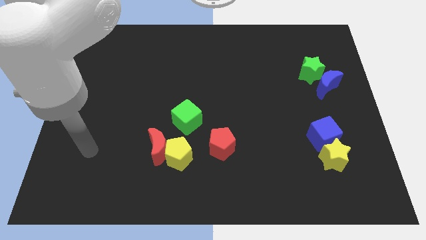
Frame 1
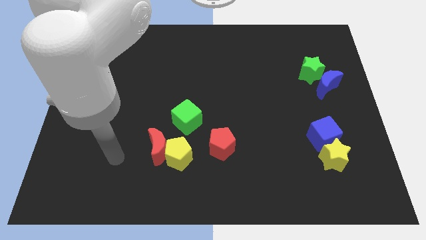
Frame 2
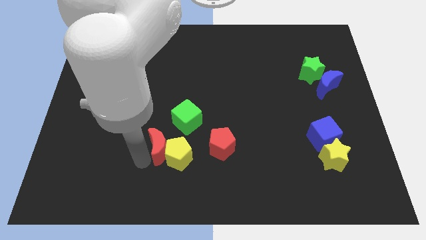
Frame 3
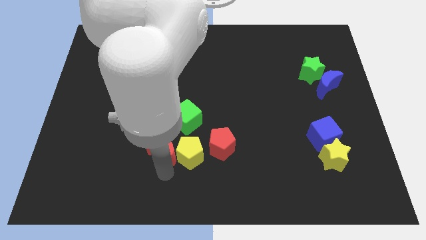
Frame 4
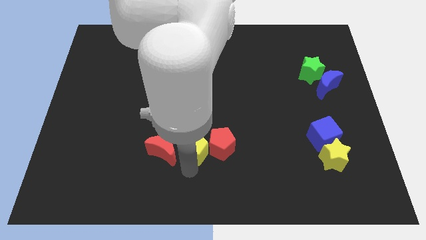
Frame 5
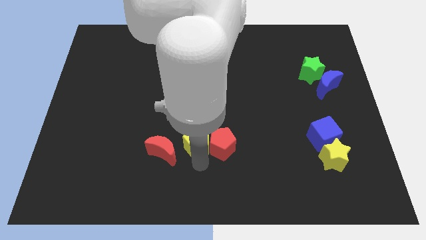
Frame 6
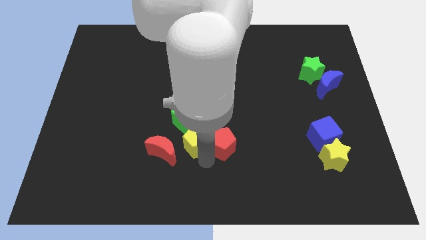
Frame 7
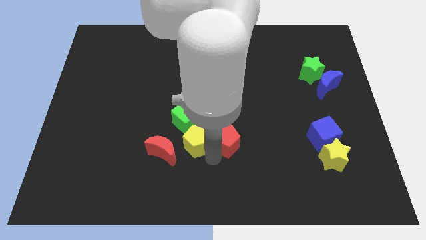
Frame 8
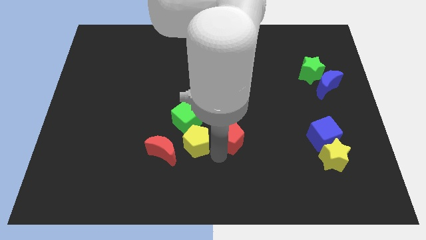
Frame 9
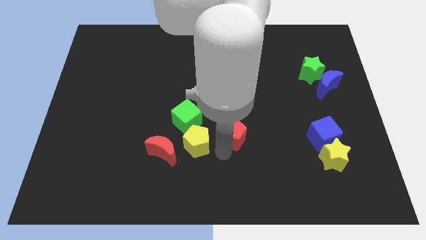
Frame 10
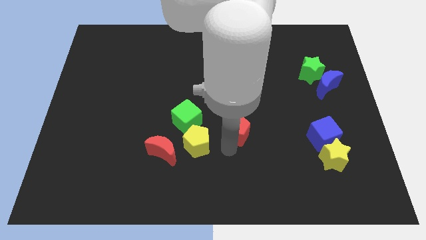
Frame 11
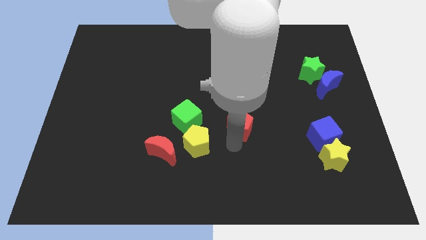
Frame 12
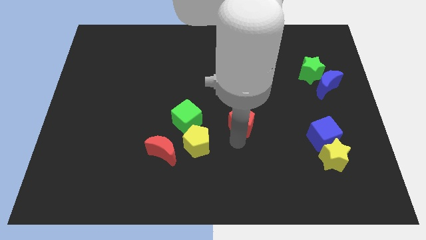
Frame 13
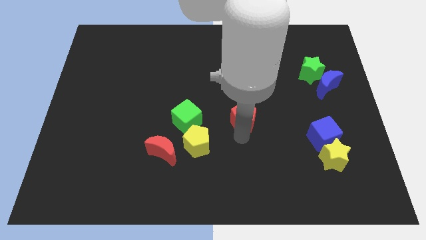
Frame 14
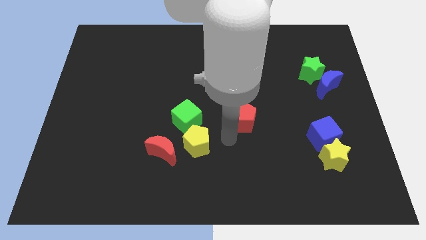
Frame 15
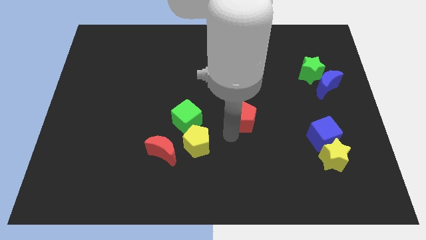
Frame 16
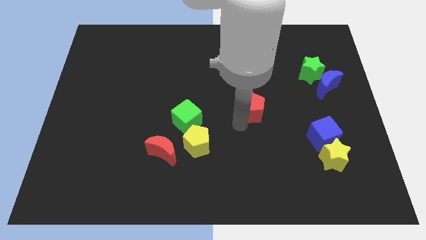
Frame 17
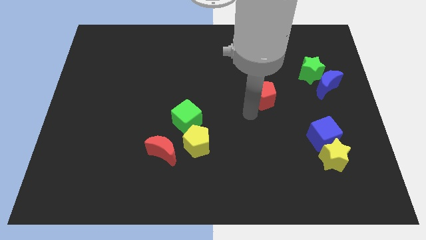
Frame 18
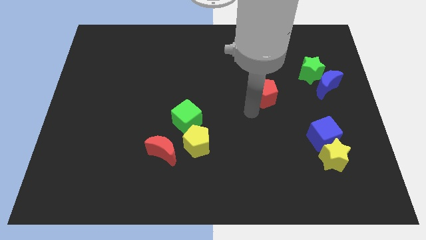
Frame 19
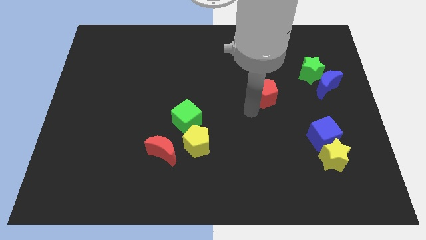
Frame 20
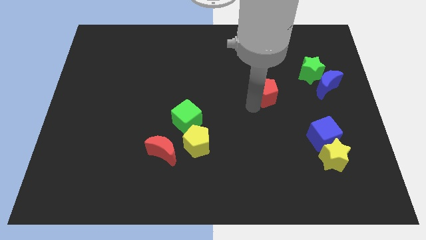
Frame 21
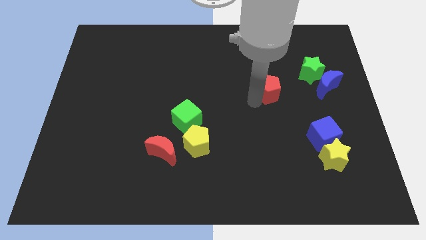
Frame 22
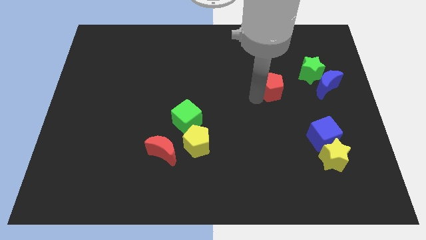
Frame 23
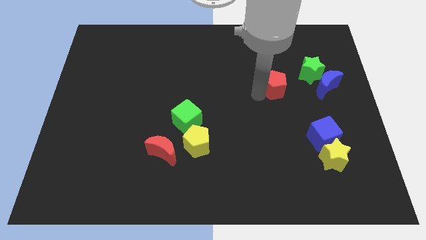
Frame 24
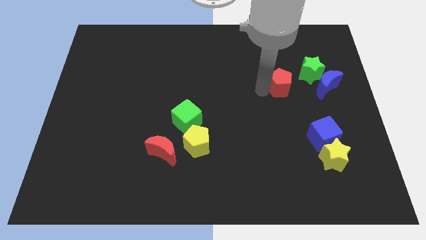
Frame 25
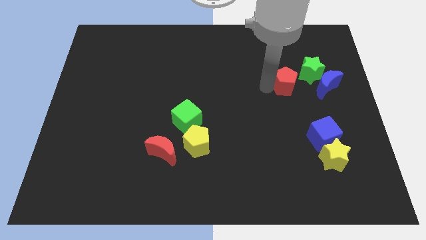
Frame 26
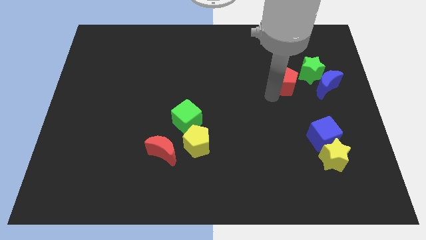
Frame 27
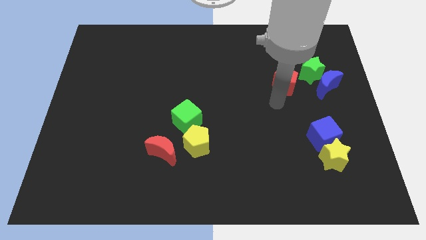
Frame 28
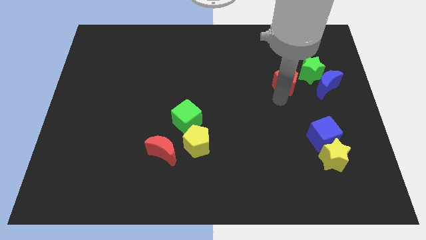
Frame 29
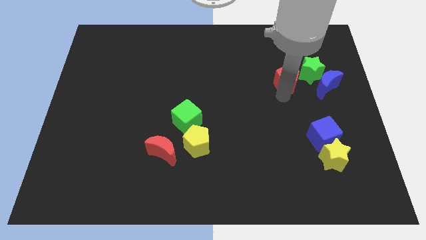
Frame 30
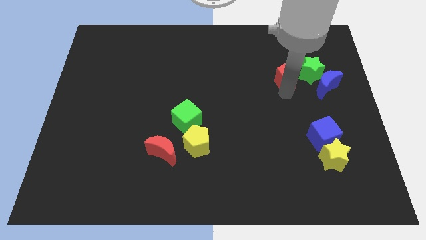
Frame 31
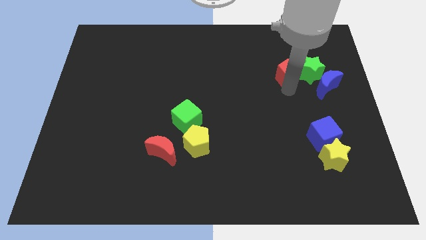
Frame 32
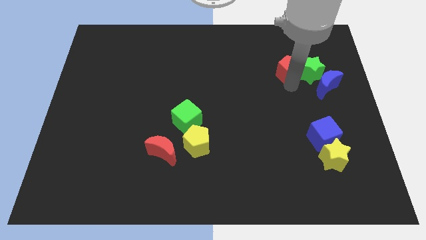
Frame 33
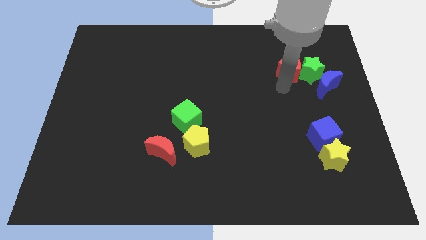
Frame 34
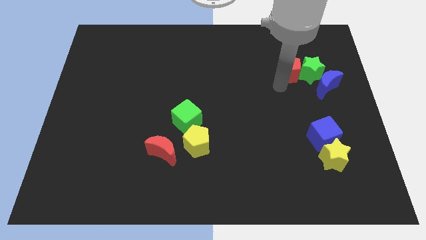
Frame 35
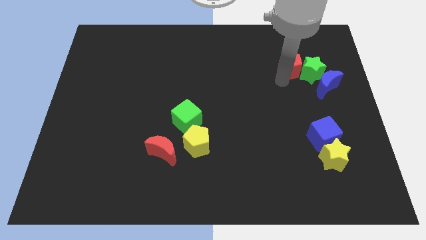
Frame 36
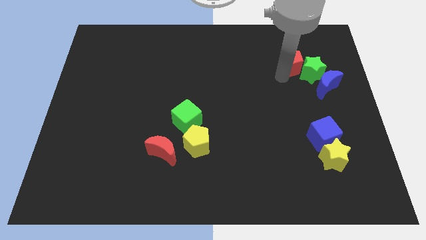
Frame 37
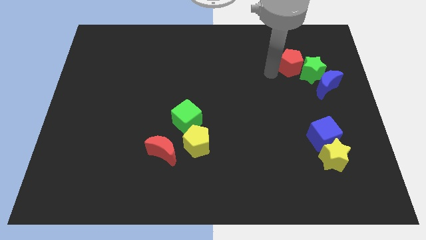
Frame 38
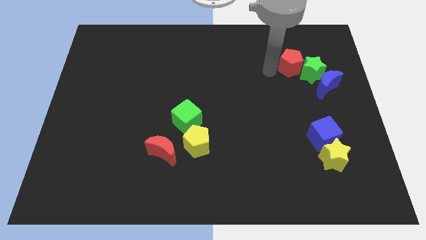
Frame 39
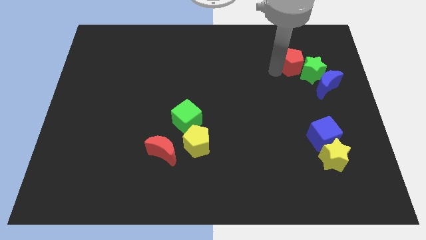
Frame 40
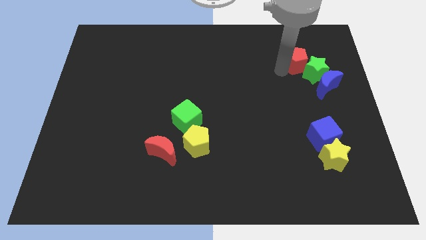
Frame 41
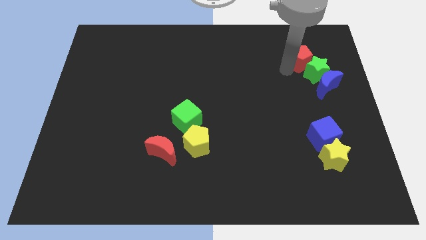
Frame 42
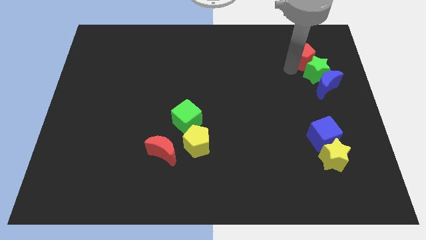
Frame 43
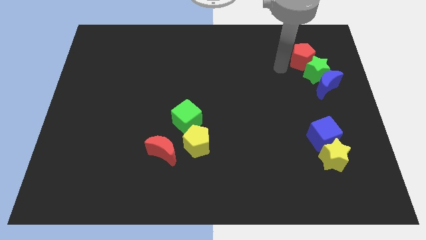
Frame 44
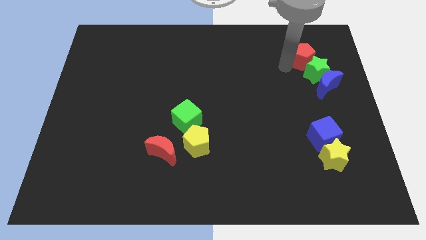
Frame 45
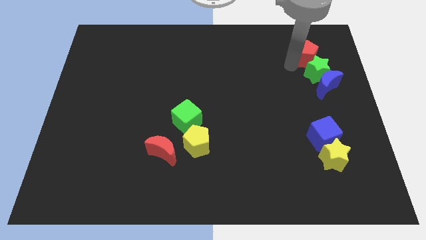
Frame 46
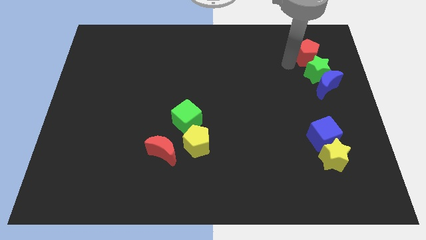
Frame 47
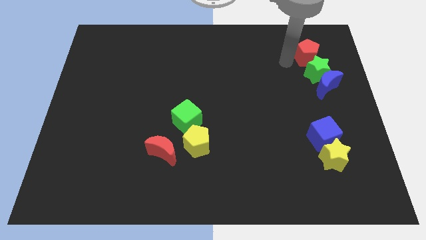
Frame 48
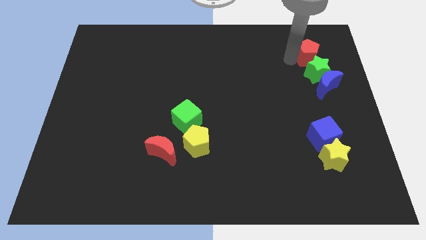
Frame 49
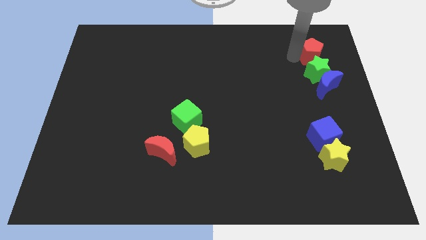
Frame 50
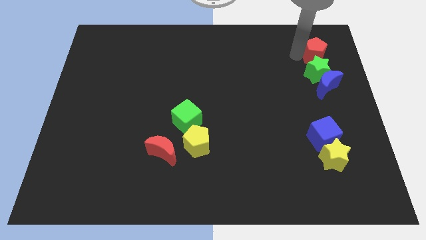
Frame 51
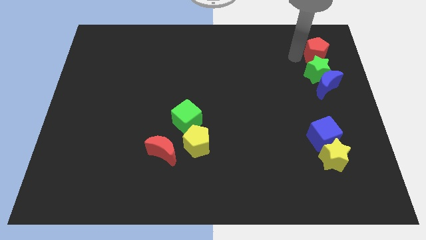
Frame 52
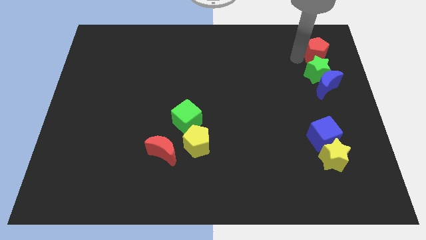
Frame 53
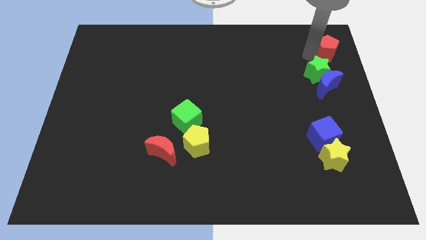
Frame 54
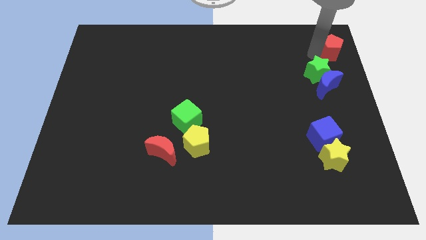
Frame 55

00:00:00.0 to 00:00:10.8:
move the red pentagon to the top right corner

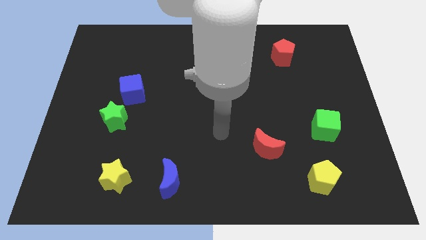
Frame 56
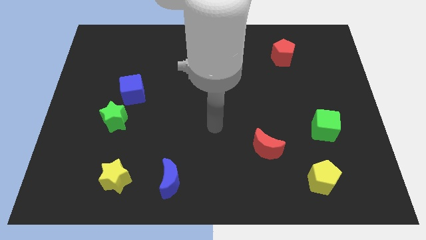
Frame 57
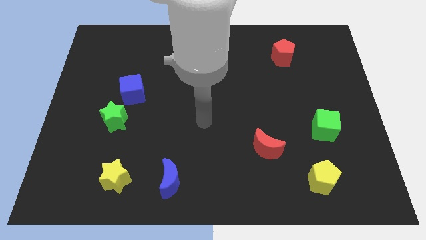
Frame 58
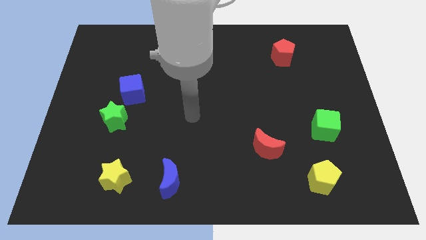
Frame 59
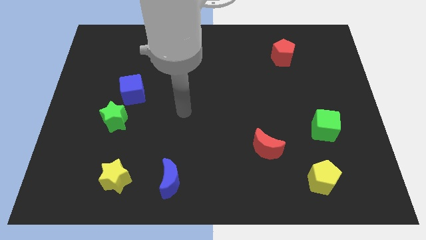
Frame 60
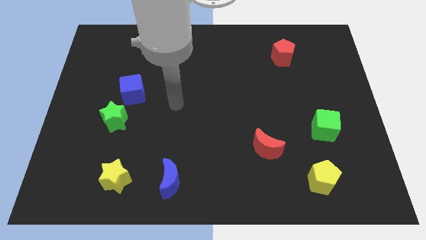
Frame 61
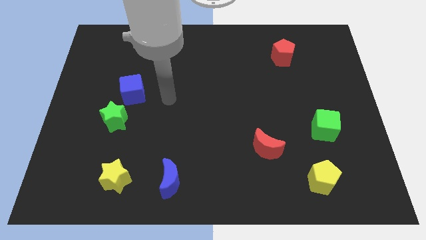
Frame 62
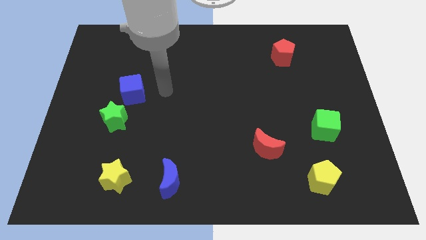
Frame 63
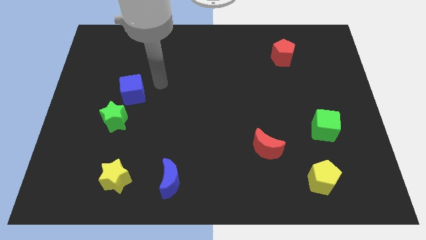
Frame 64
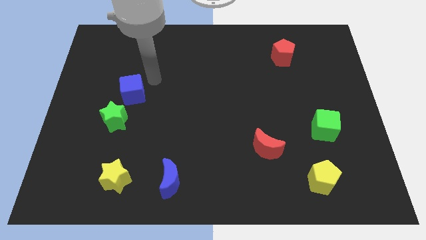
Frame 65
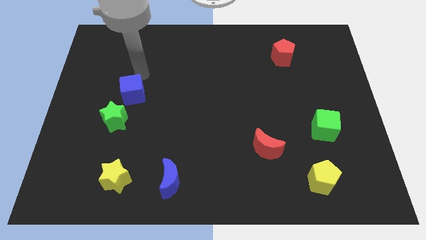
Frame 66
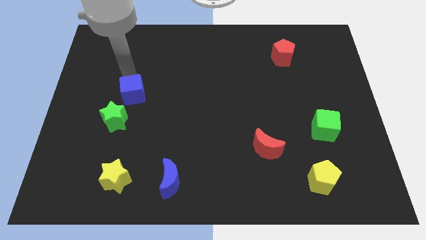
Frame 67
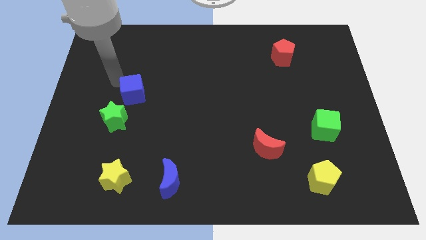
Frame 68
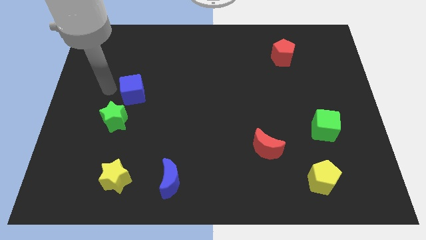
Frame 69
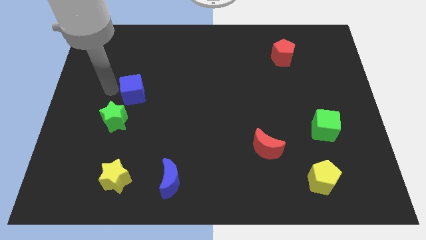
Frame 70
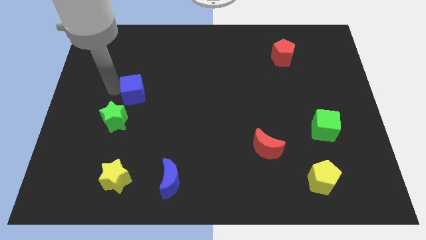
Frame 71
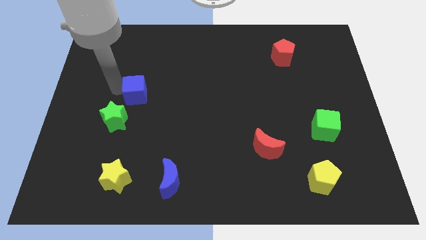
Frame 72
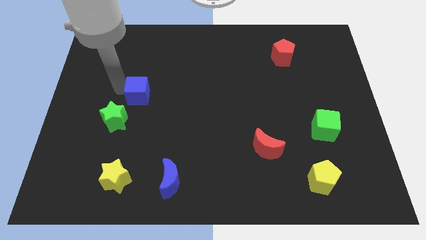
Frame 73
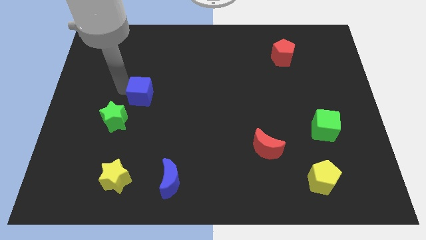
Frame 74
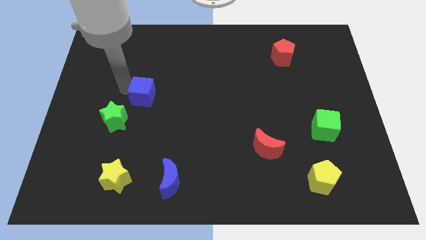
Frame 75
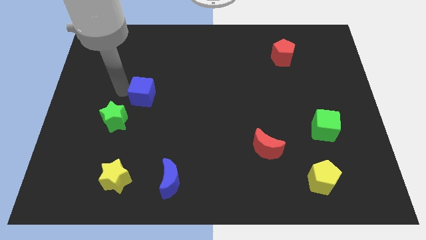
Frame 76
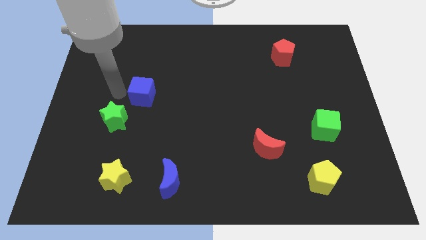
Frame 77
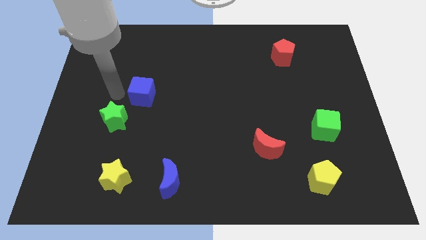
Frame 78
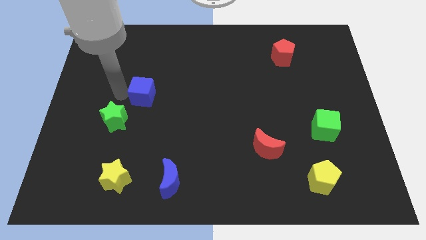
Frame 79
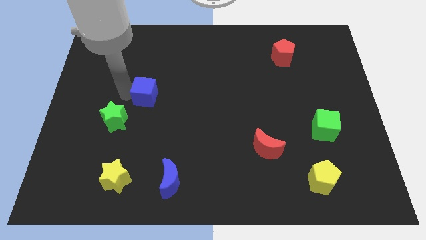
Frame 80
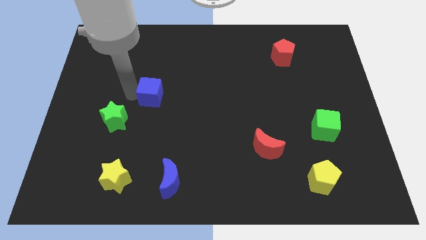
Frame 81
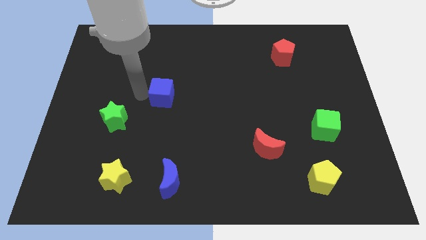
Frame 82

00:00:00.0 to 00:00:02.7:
move the blue cube to the center of the board
